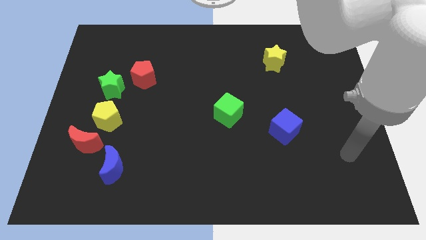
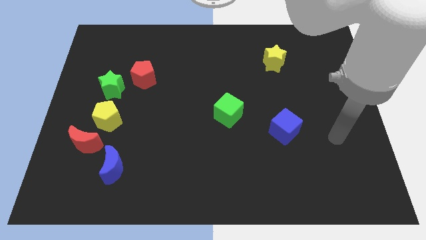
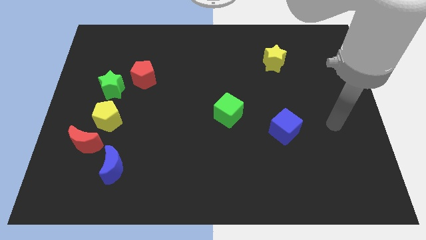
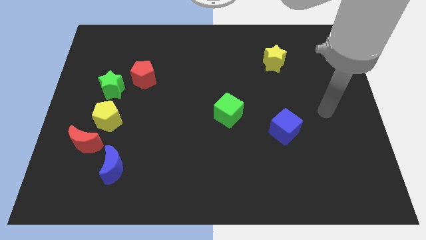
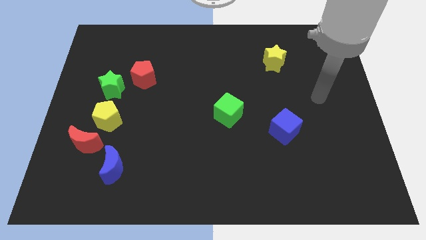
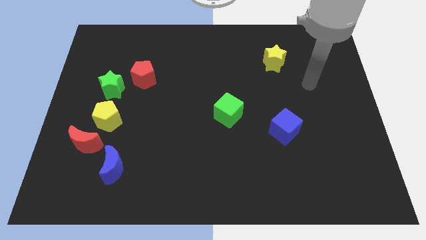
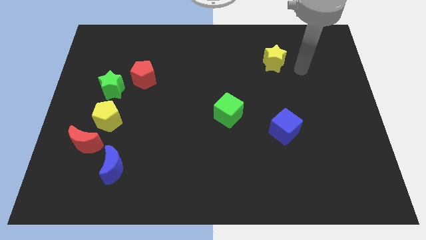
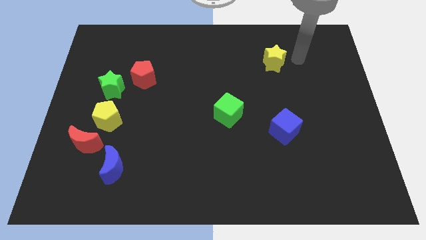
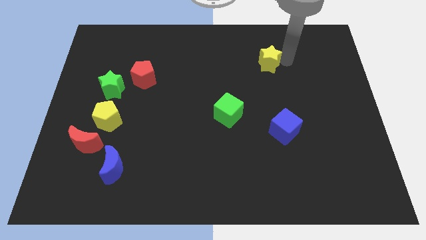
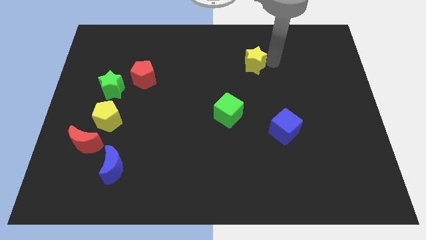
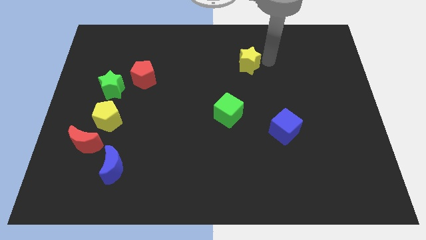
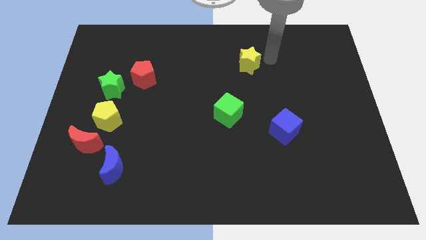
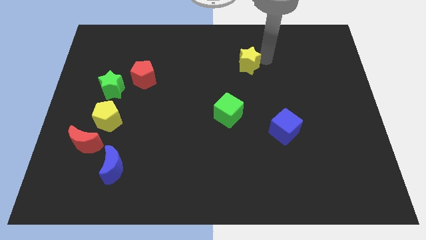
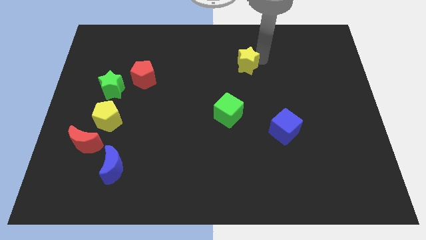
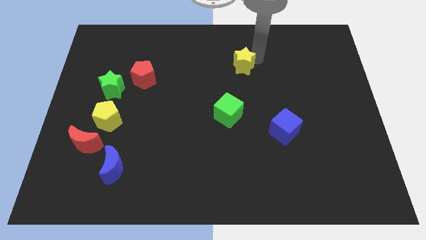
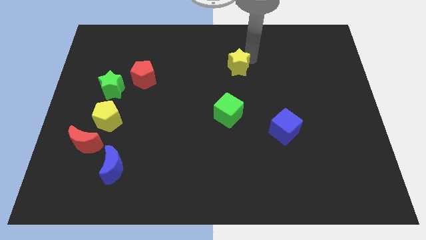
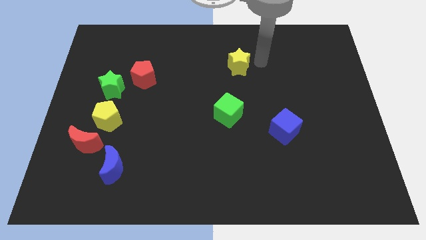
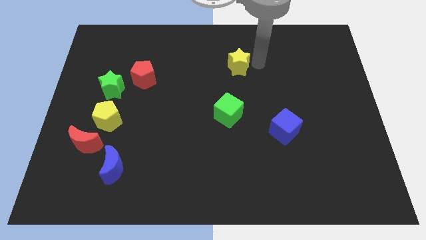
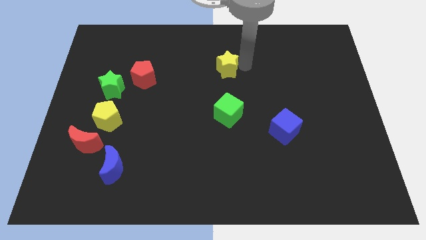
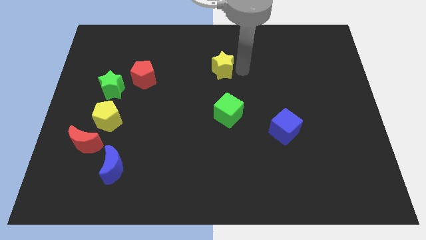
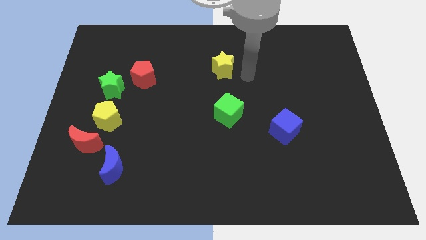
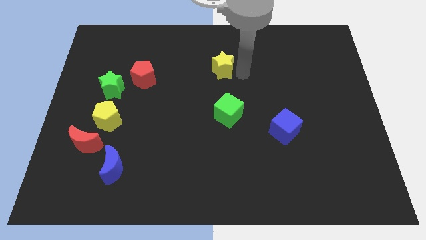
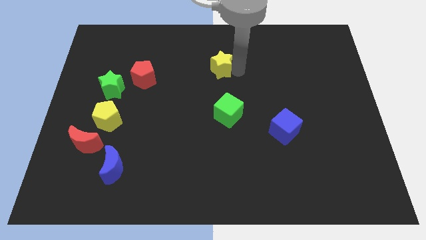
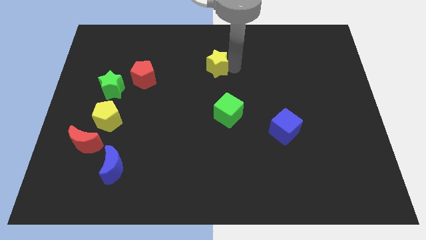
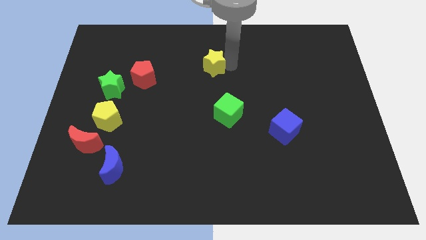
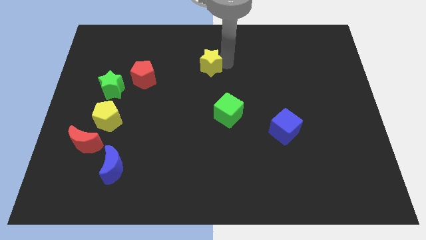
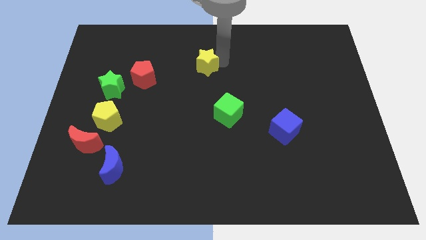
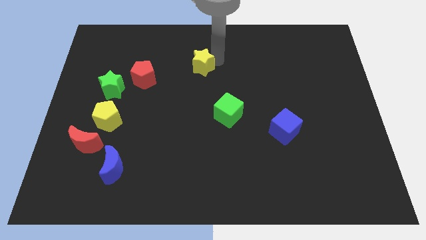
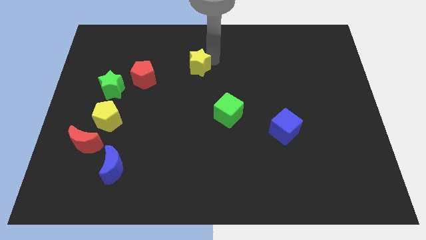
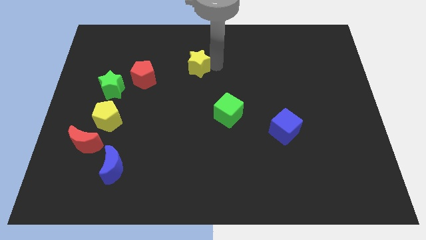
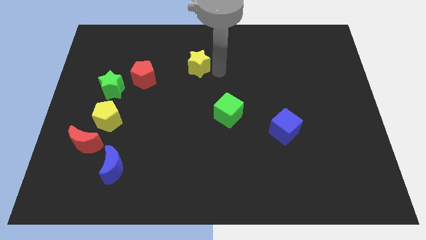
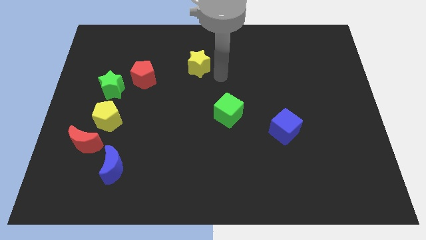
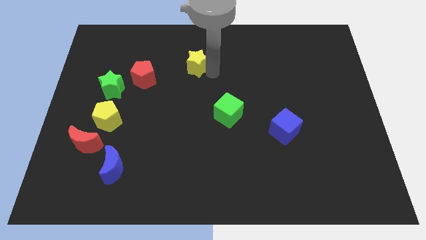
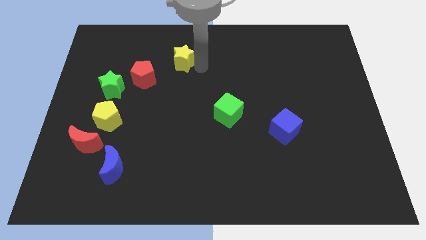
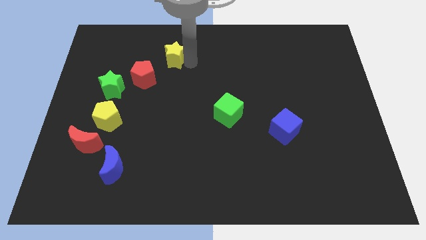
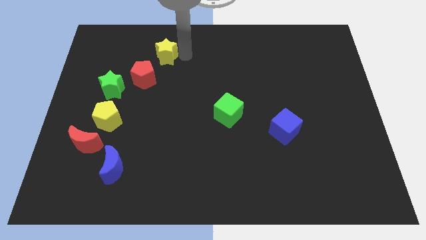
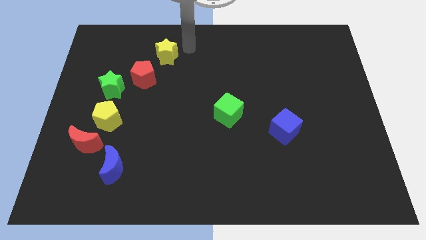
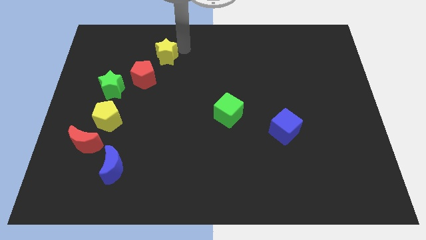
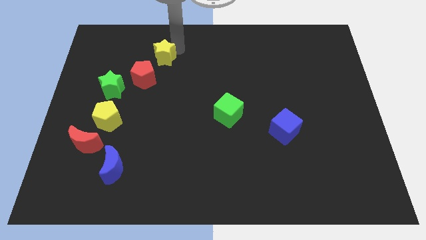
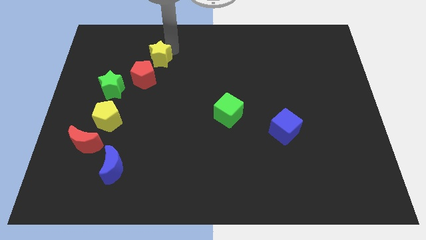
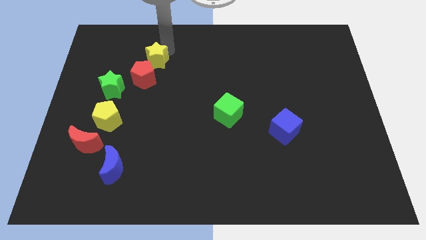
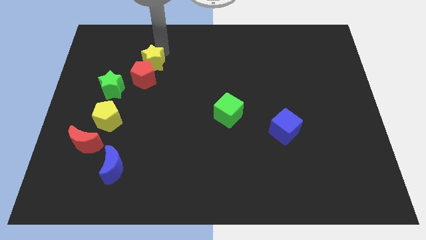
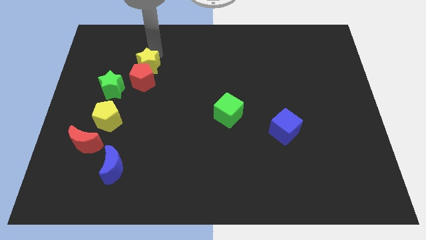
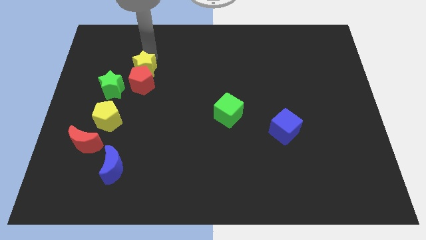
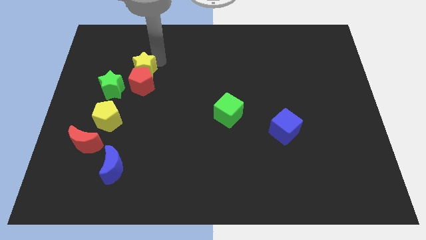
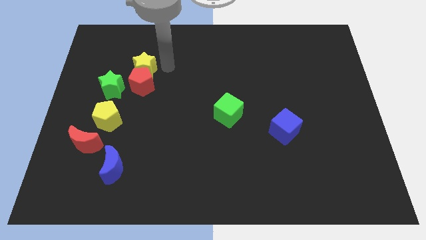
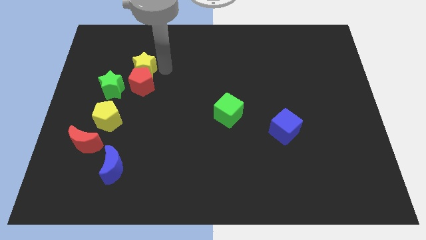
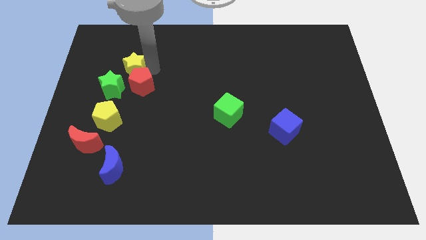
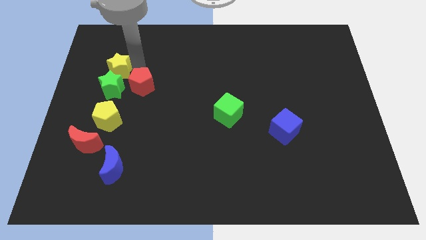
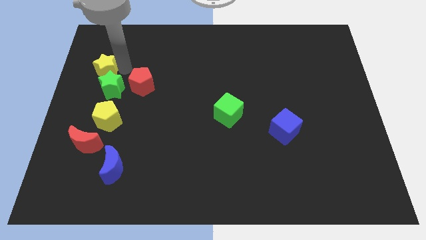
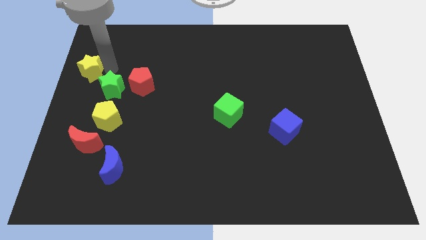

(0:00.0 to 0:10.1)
slide the yellow star to the left side
